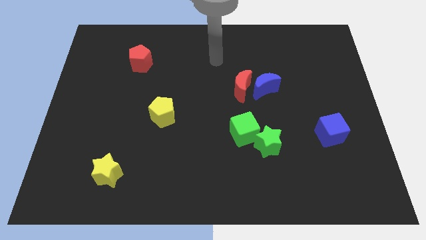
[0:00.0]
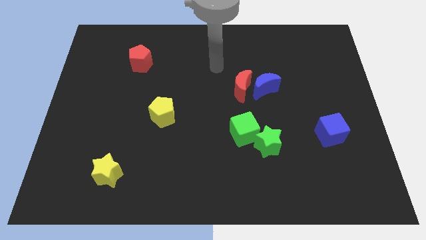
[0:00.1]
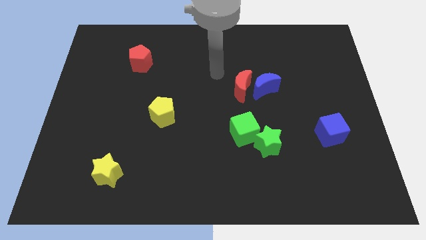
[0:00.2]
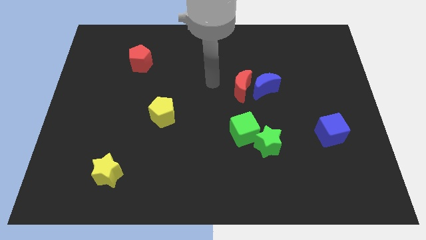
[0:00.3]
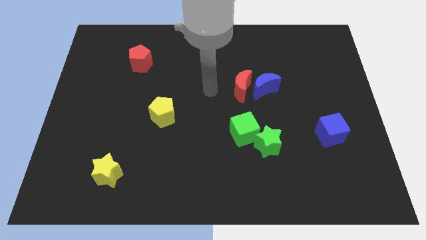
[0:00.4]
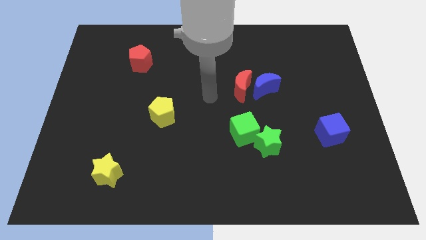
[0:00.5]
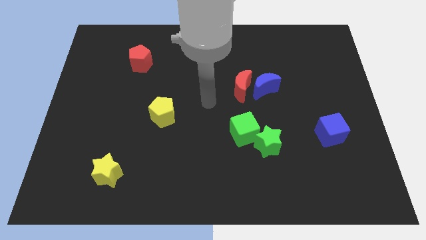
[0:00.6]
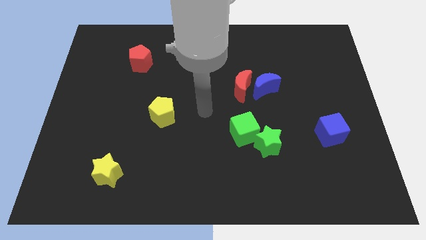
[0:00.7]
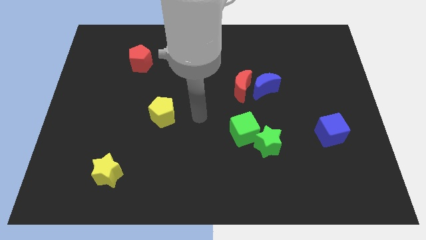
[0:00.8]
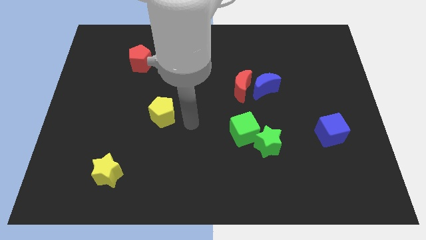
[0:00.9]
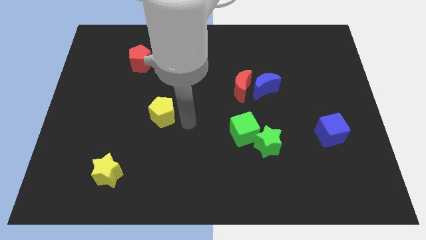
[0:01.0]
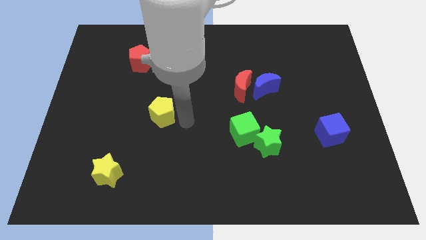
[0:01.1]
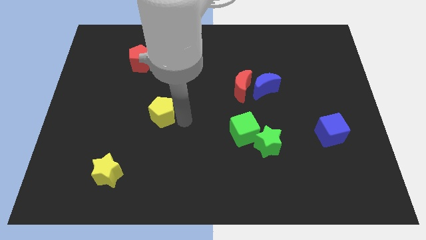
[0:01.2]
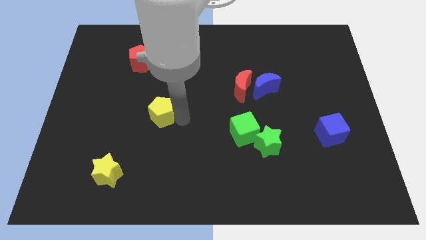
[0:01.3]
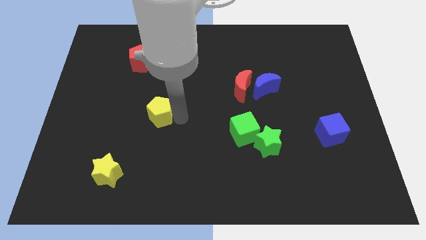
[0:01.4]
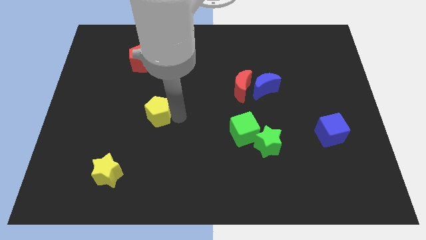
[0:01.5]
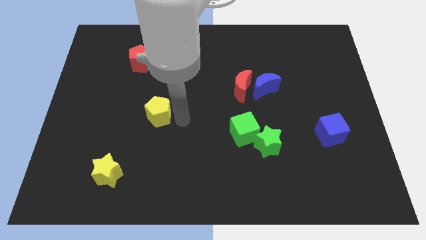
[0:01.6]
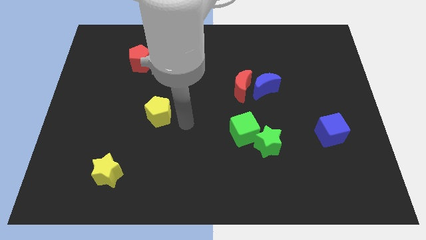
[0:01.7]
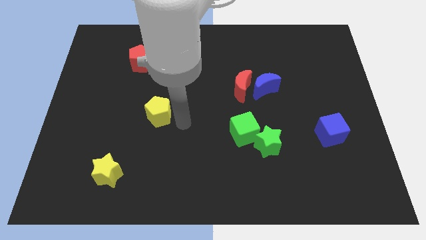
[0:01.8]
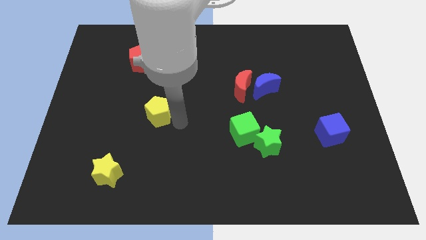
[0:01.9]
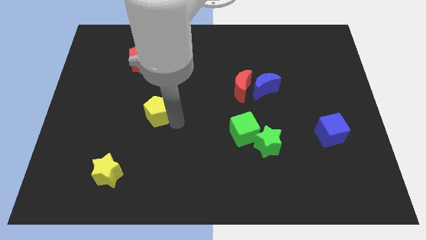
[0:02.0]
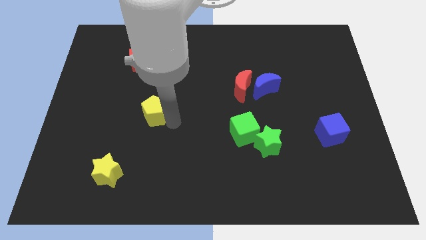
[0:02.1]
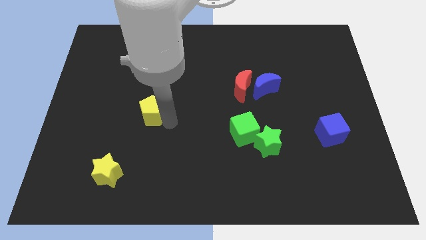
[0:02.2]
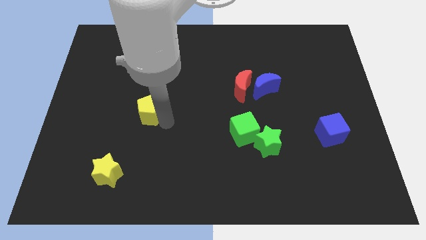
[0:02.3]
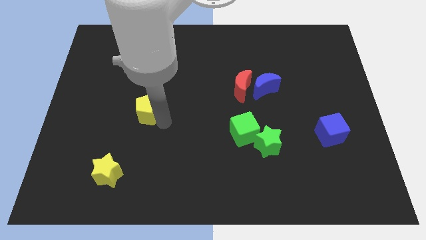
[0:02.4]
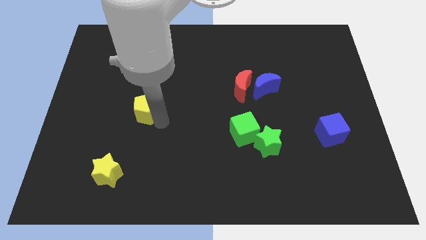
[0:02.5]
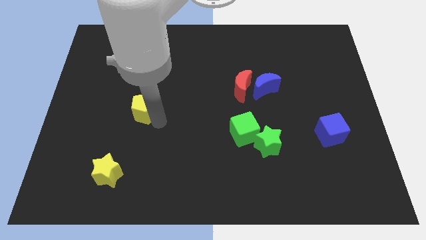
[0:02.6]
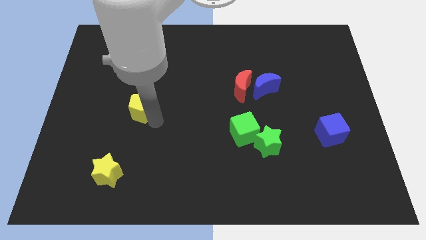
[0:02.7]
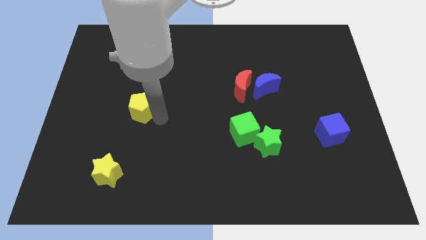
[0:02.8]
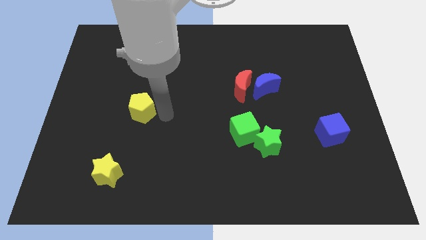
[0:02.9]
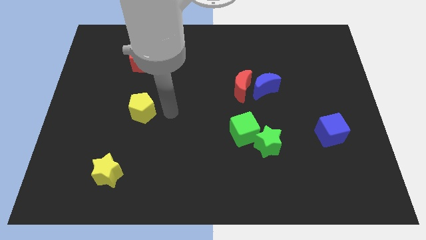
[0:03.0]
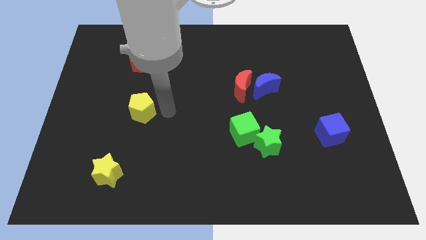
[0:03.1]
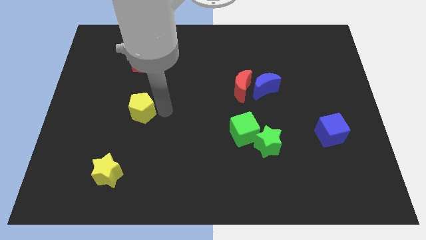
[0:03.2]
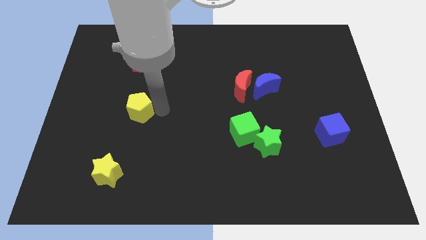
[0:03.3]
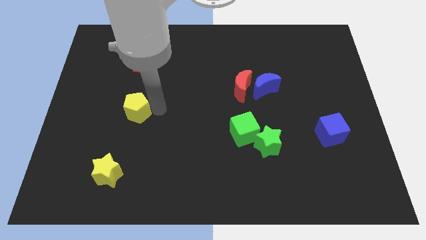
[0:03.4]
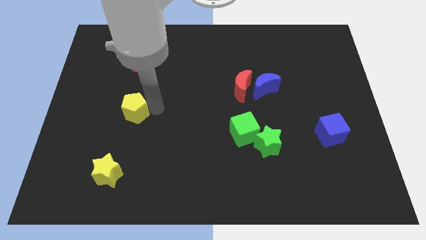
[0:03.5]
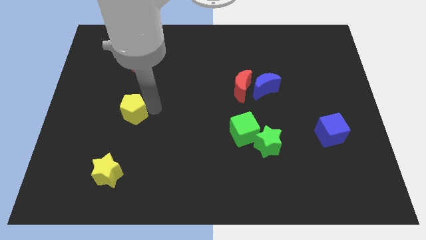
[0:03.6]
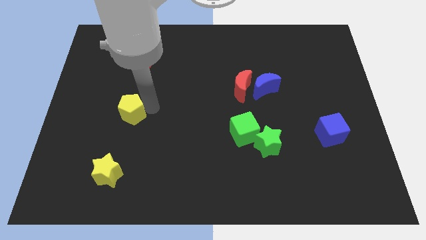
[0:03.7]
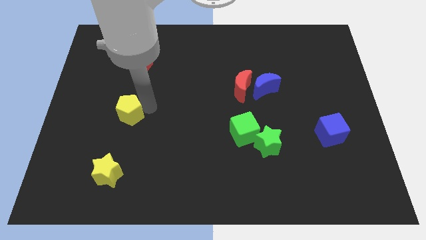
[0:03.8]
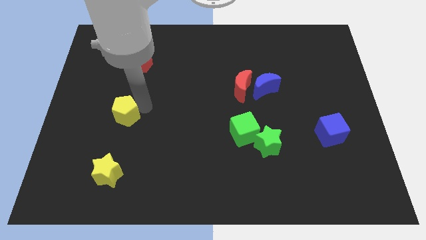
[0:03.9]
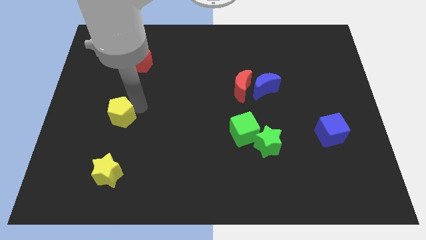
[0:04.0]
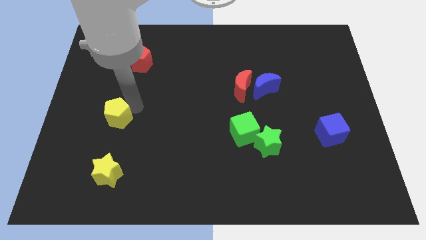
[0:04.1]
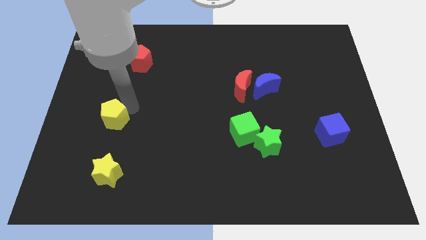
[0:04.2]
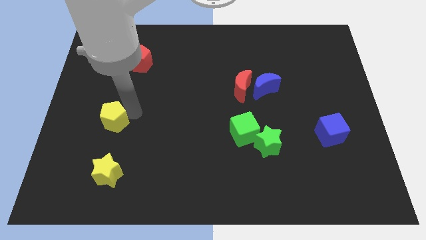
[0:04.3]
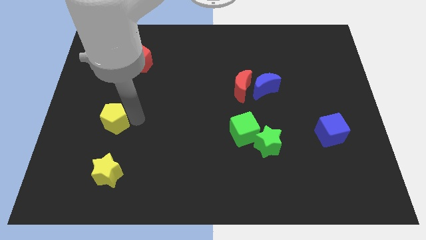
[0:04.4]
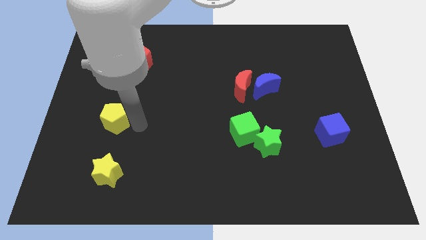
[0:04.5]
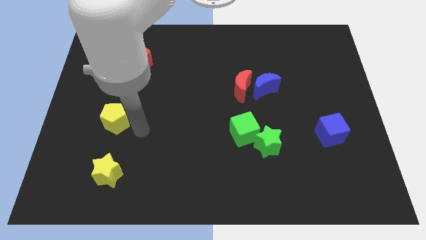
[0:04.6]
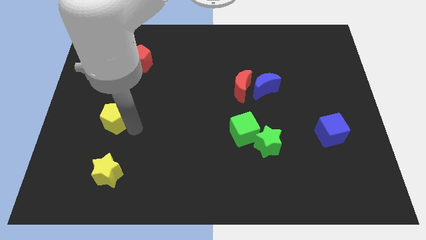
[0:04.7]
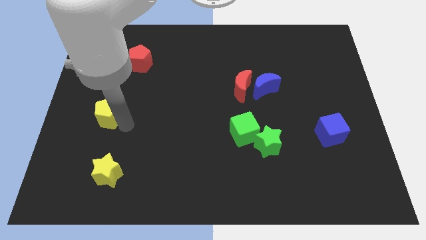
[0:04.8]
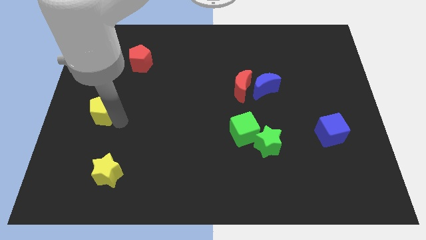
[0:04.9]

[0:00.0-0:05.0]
slide the yellow pentagon to the center left

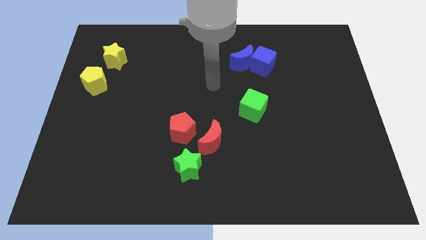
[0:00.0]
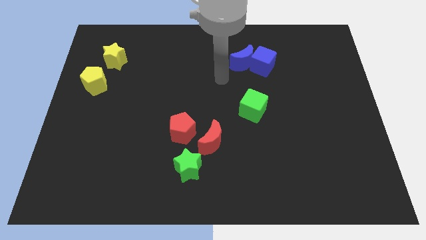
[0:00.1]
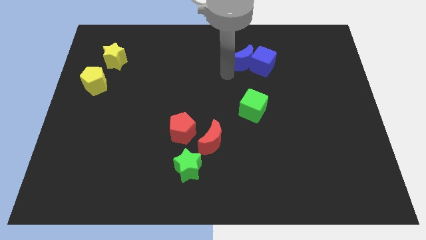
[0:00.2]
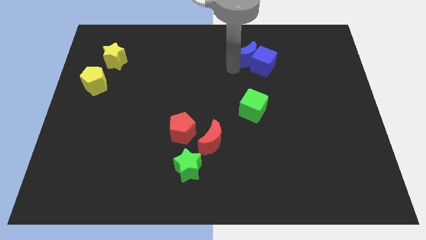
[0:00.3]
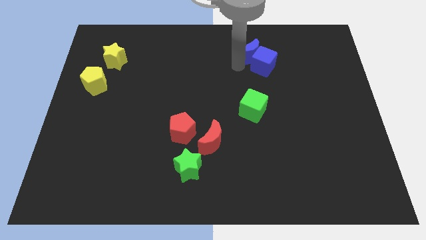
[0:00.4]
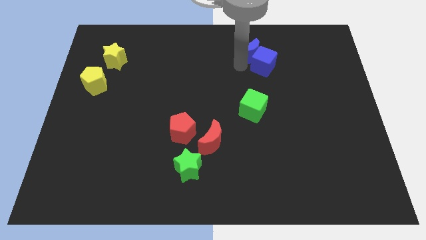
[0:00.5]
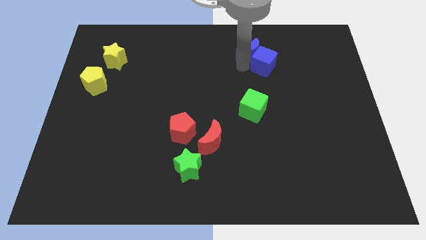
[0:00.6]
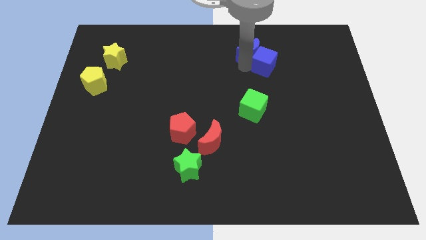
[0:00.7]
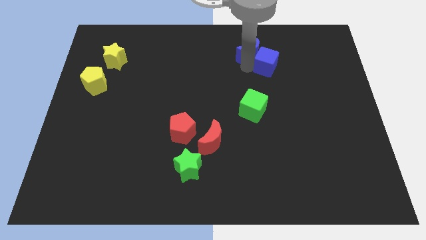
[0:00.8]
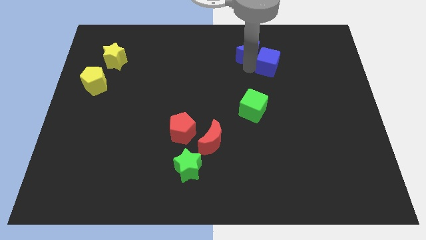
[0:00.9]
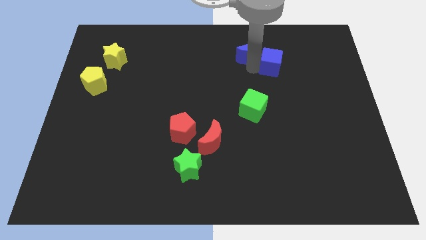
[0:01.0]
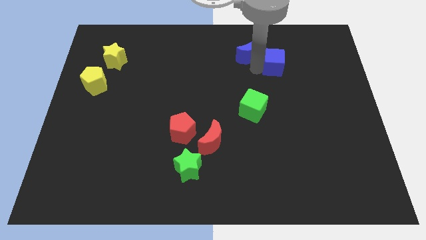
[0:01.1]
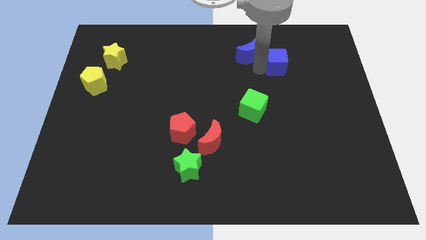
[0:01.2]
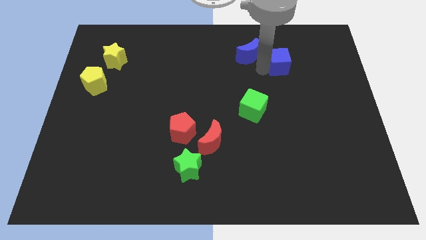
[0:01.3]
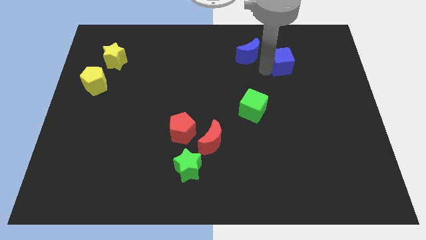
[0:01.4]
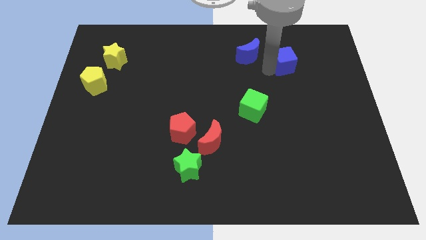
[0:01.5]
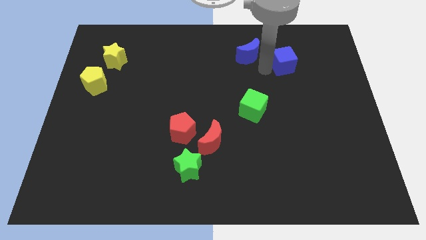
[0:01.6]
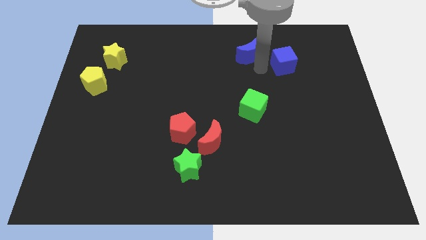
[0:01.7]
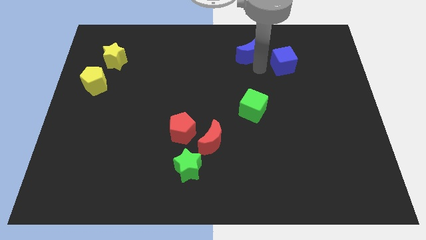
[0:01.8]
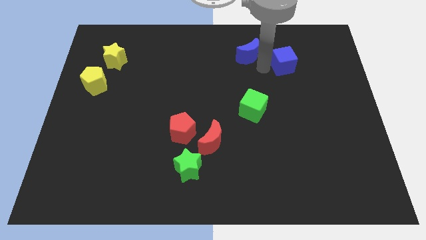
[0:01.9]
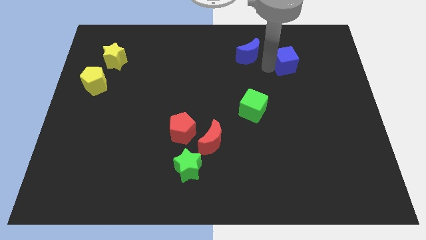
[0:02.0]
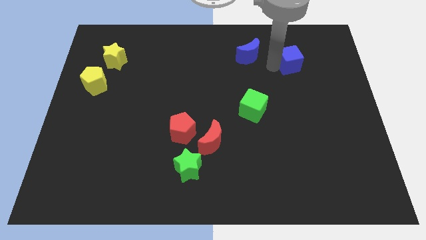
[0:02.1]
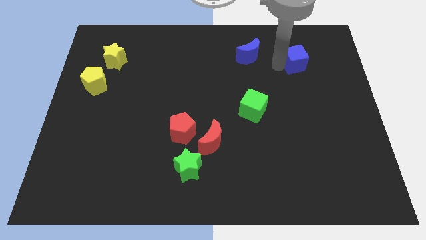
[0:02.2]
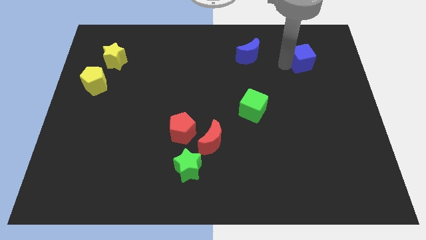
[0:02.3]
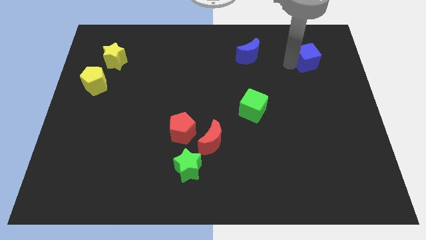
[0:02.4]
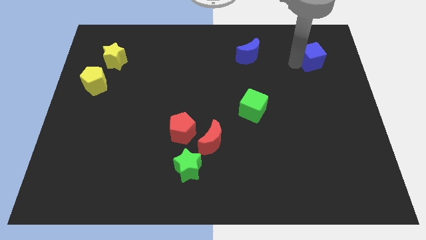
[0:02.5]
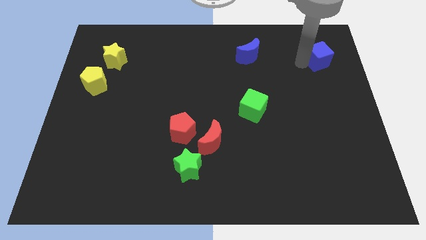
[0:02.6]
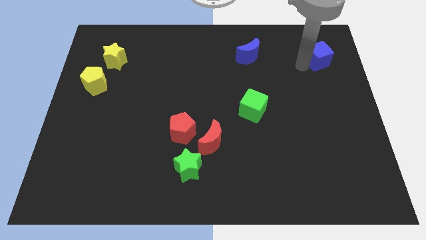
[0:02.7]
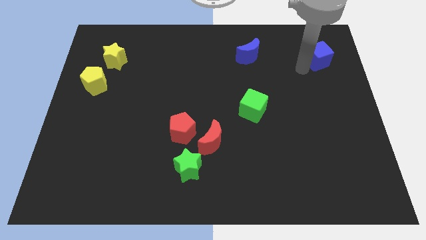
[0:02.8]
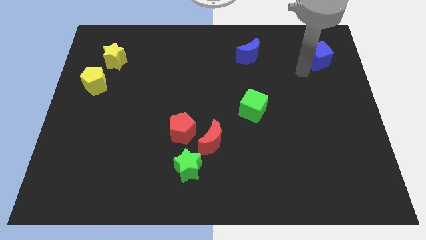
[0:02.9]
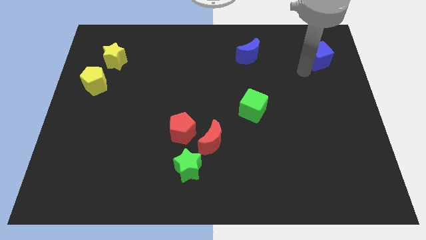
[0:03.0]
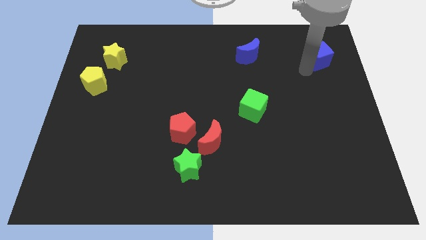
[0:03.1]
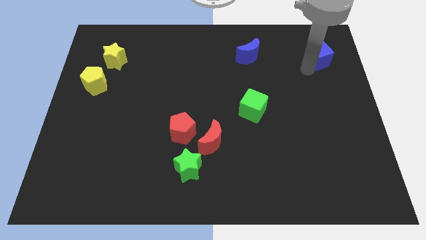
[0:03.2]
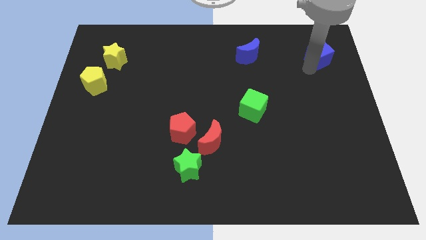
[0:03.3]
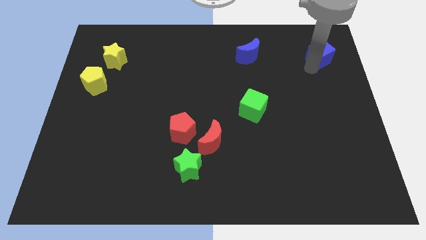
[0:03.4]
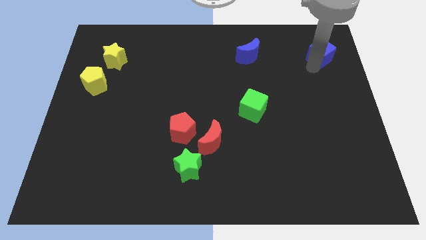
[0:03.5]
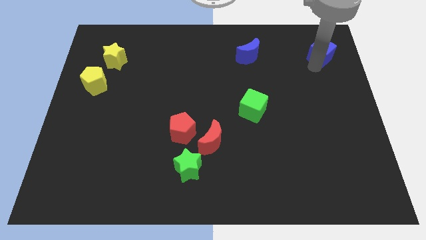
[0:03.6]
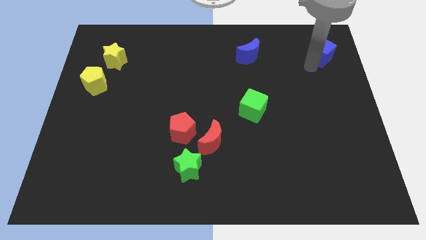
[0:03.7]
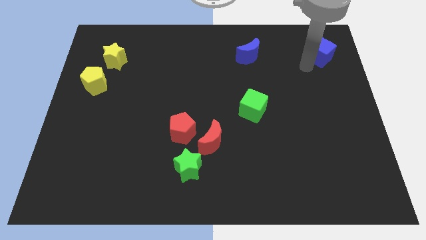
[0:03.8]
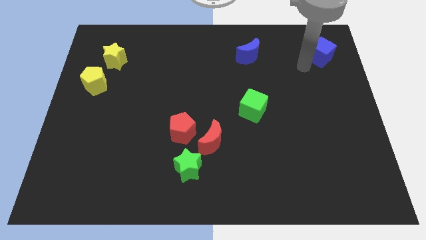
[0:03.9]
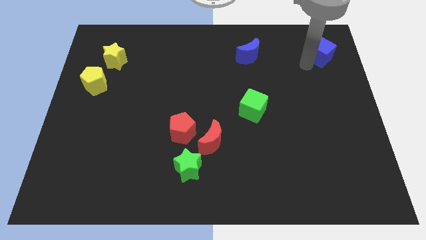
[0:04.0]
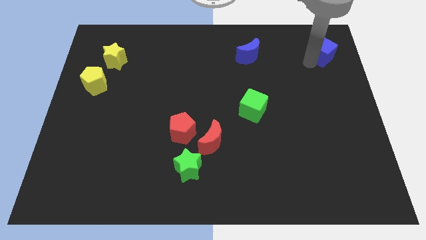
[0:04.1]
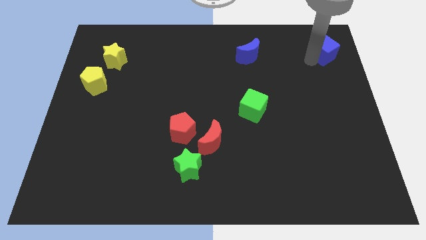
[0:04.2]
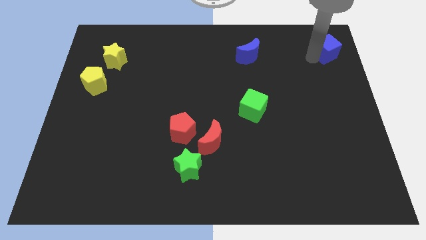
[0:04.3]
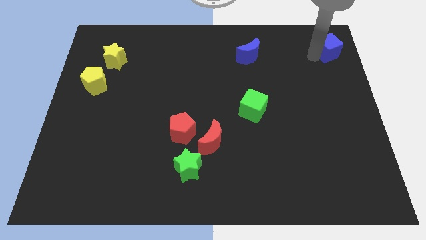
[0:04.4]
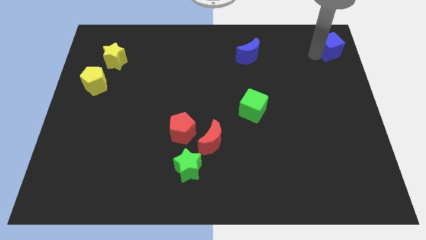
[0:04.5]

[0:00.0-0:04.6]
push the blue cube to the top right of the board
